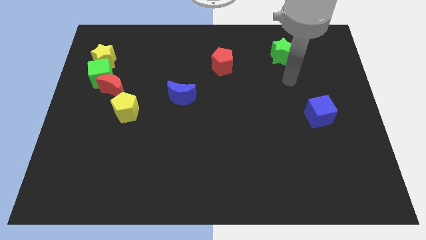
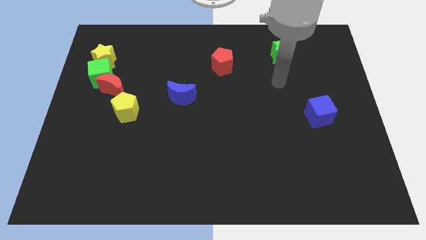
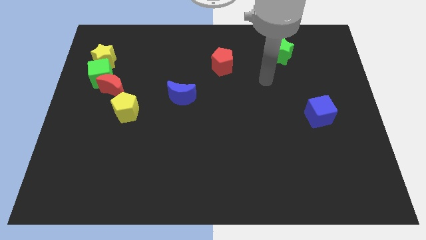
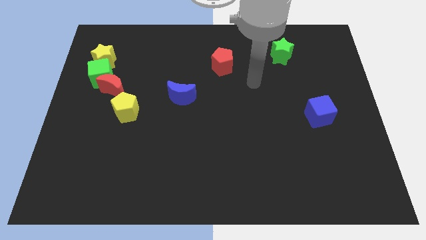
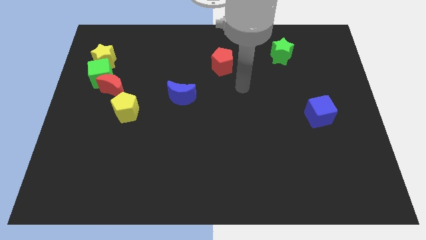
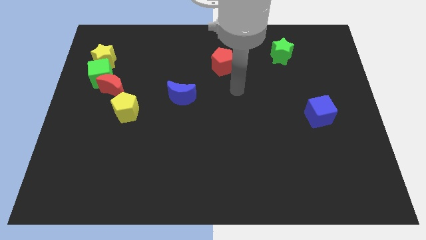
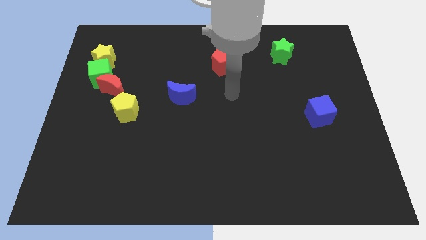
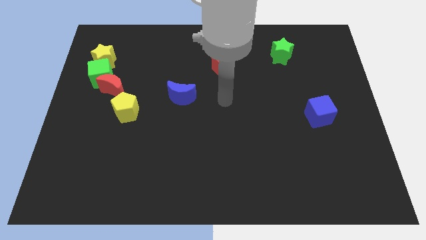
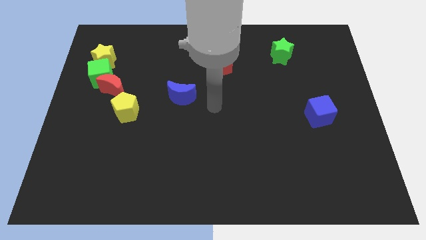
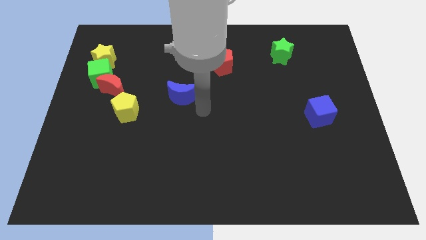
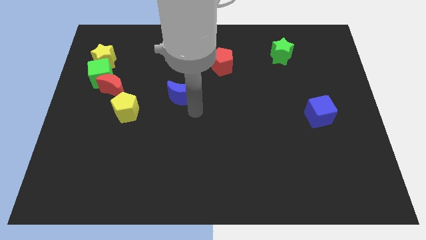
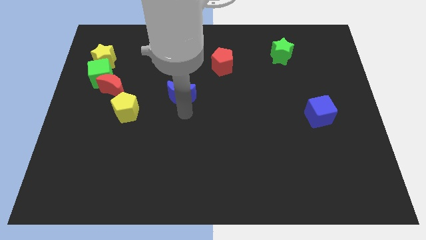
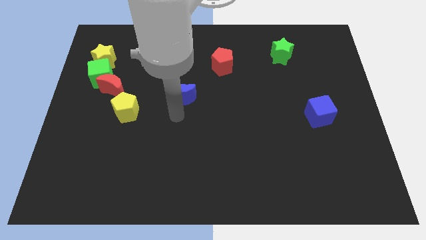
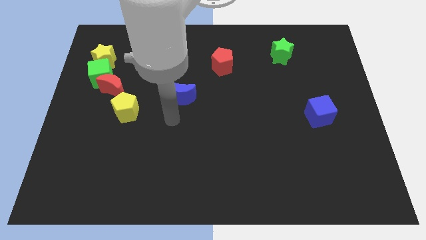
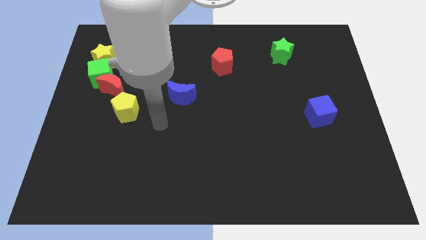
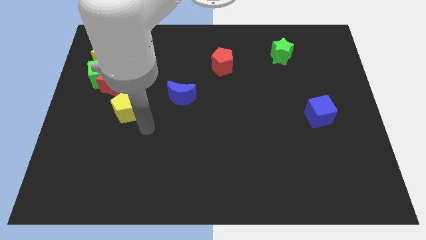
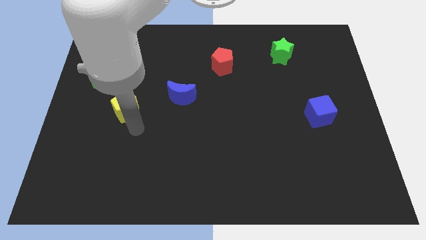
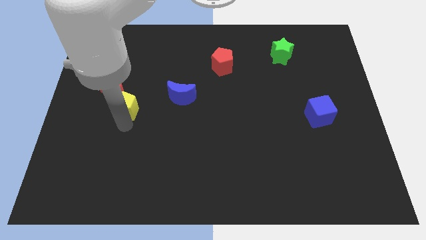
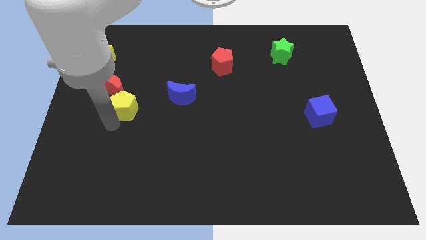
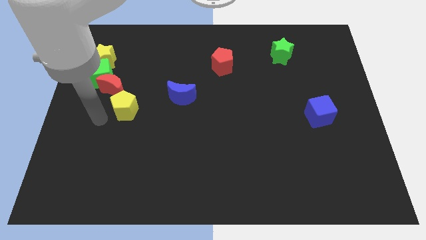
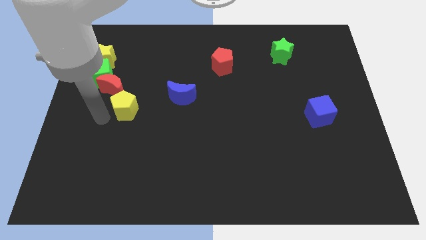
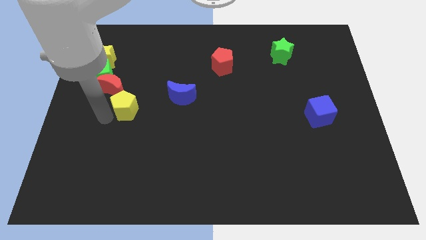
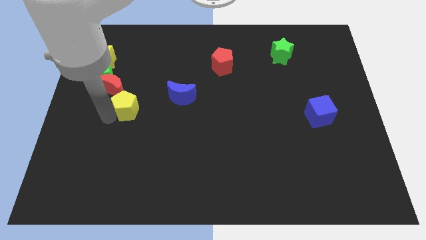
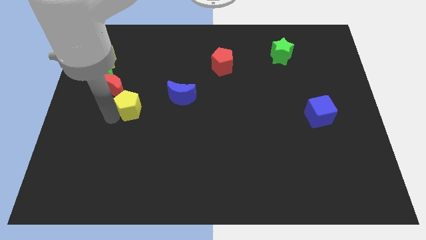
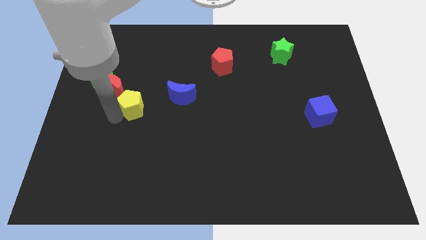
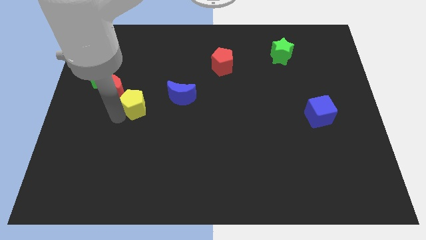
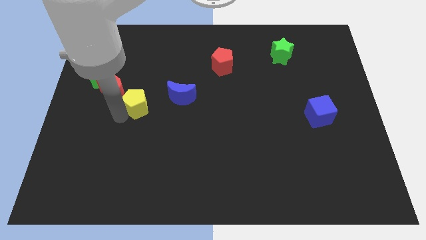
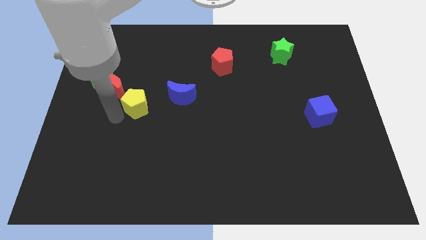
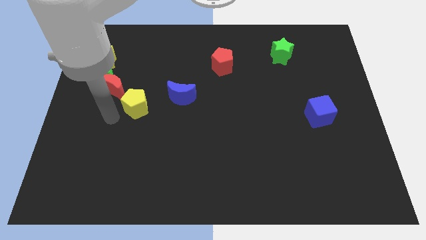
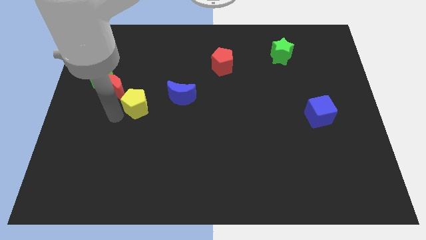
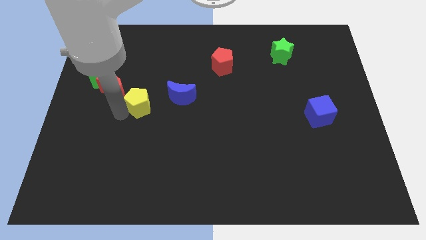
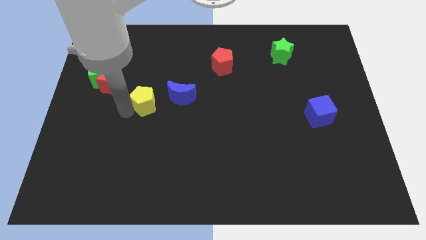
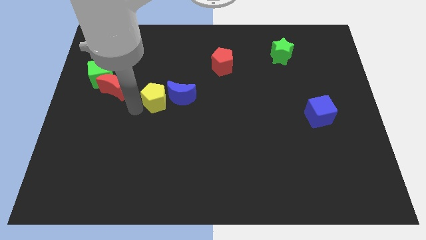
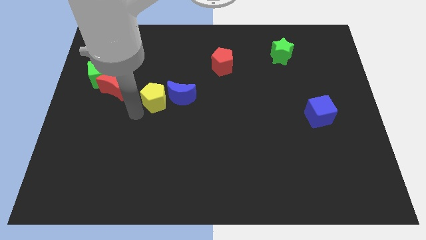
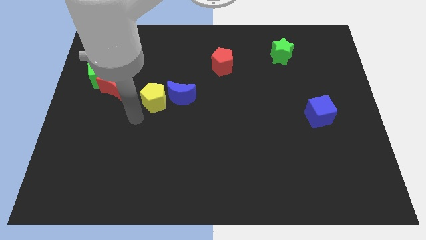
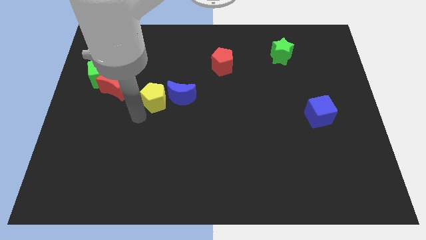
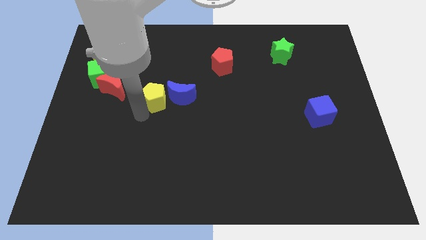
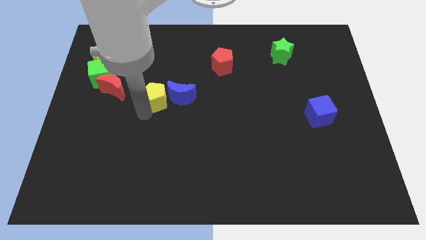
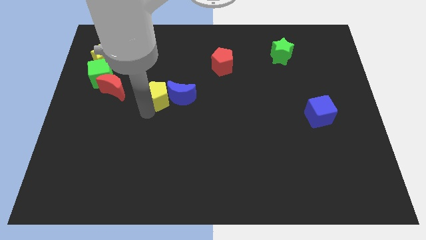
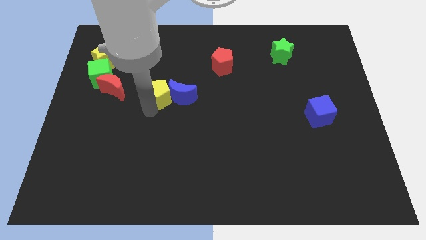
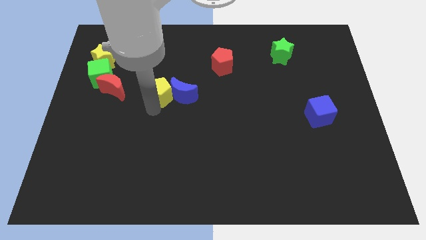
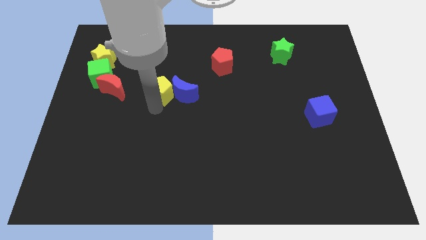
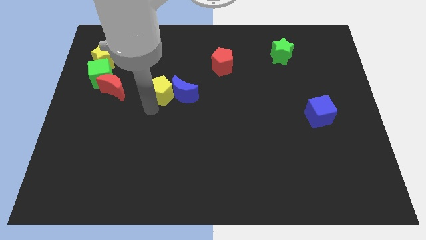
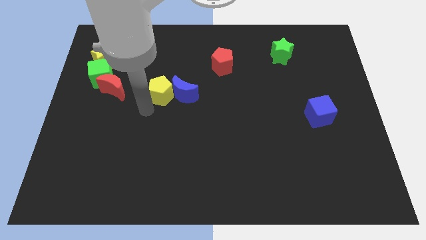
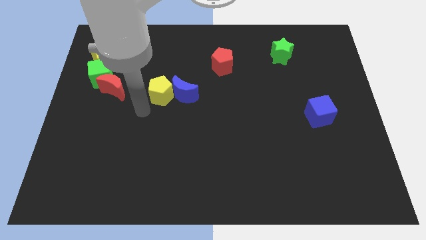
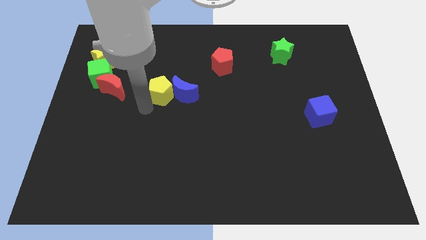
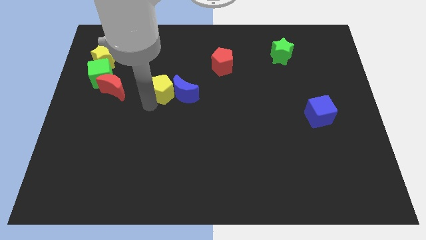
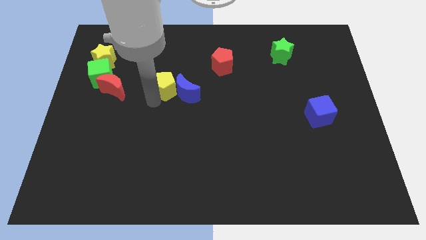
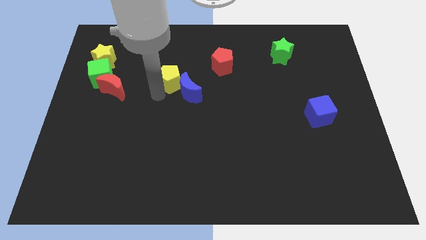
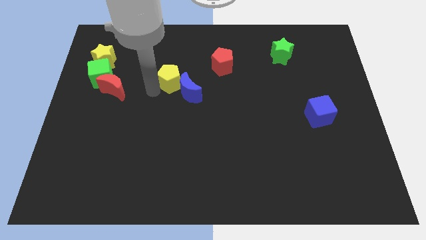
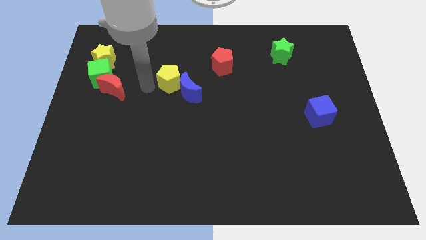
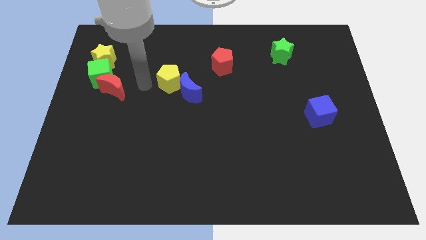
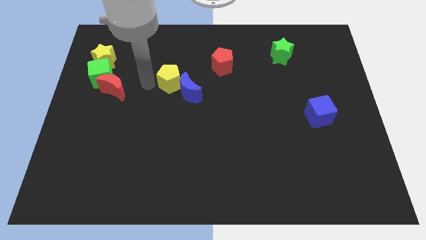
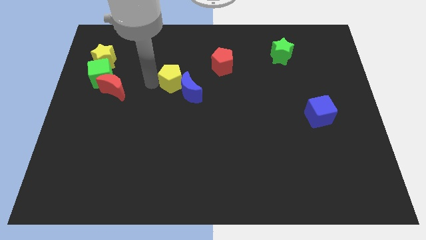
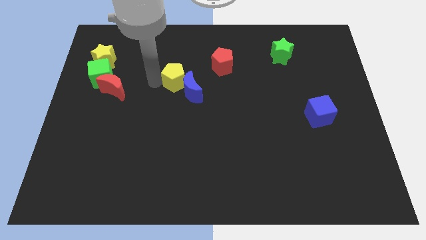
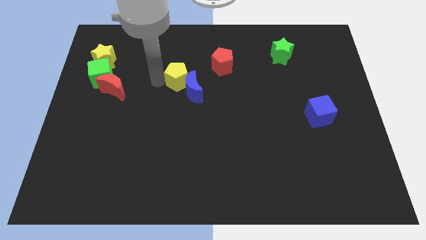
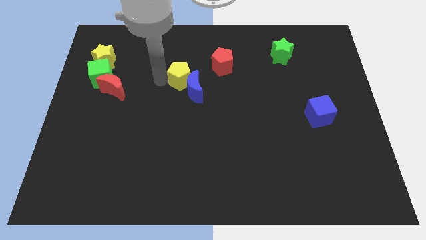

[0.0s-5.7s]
slide the yellow pentagon to the bottom left side of the red pentagon
